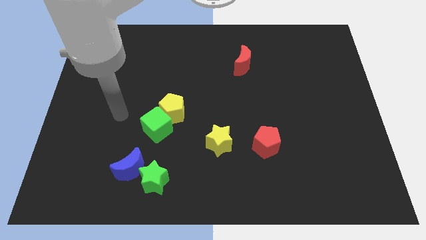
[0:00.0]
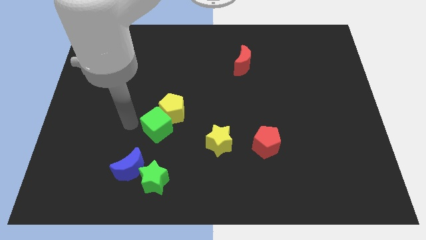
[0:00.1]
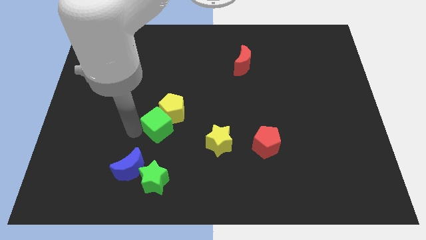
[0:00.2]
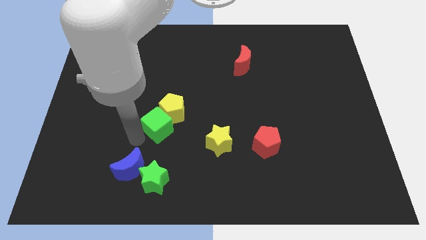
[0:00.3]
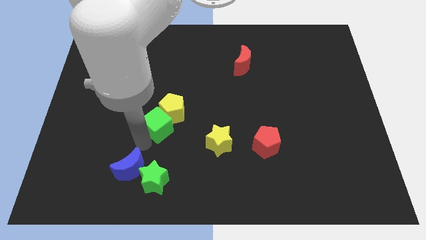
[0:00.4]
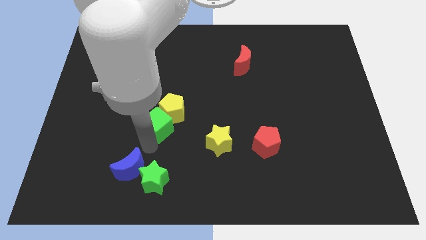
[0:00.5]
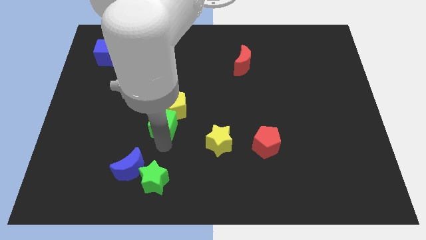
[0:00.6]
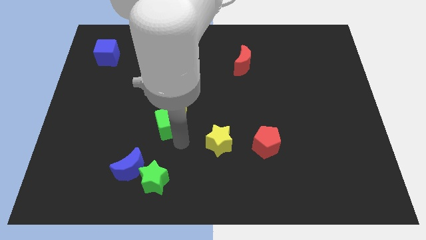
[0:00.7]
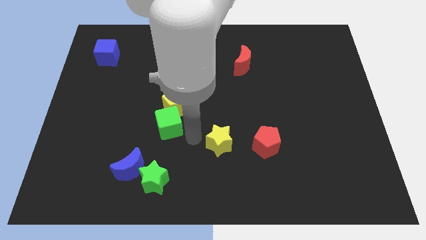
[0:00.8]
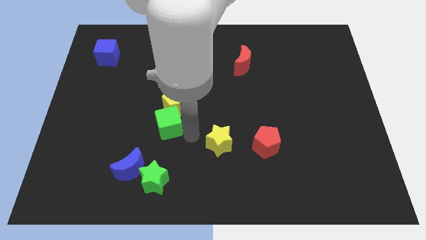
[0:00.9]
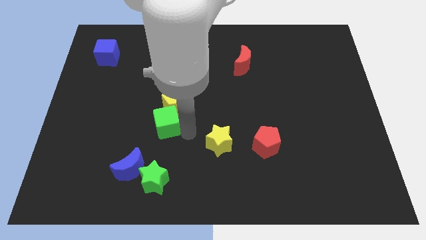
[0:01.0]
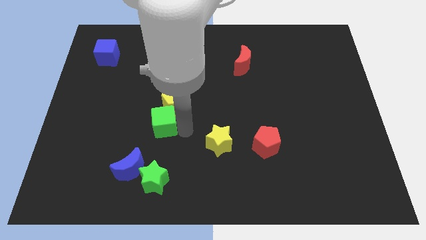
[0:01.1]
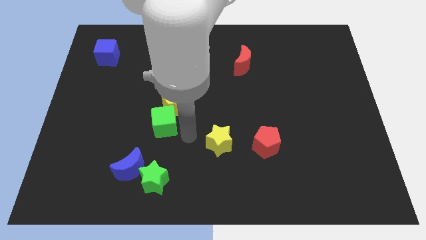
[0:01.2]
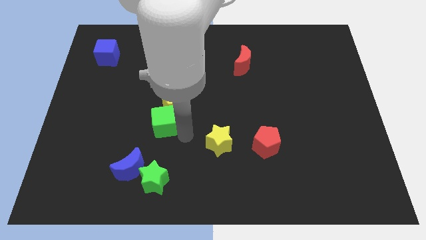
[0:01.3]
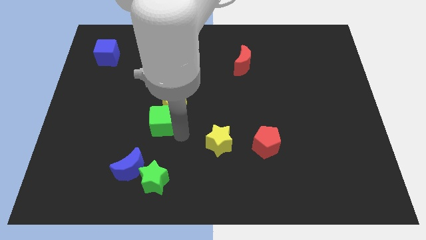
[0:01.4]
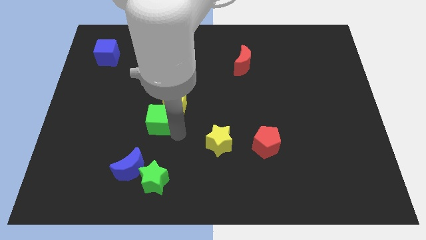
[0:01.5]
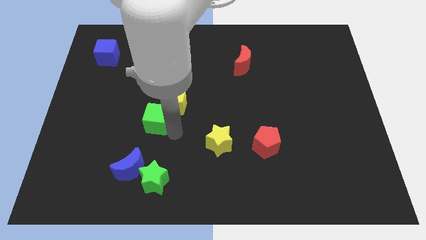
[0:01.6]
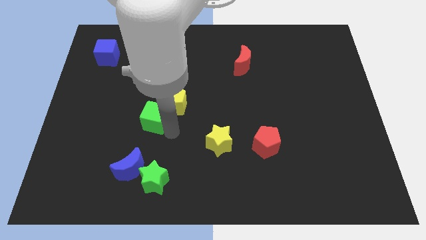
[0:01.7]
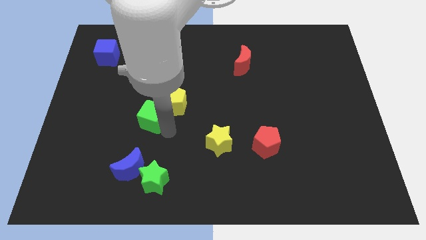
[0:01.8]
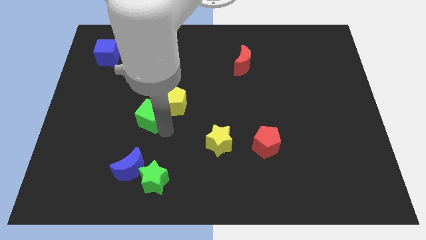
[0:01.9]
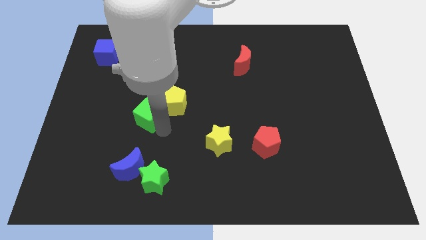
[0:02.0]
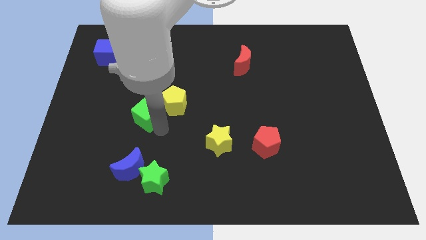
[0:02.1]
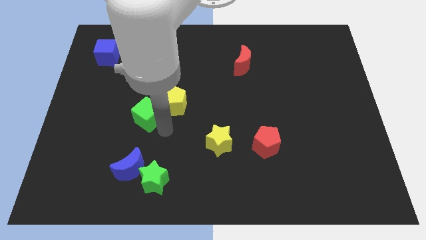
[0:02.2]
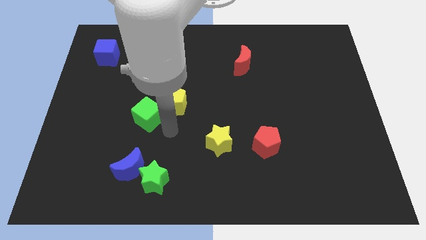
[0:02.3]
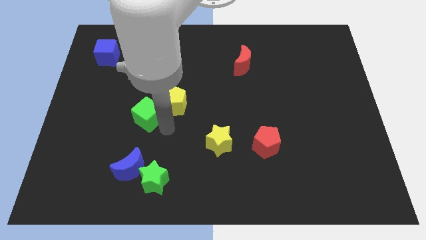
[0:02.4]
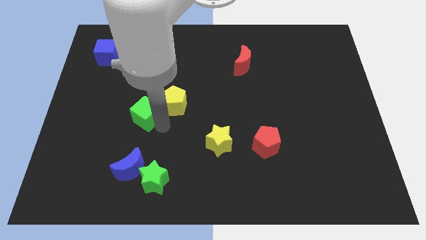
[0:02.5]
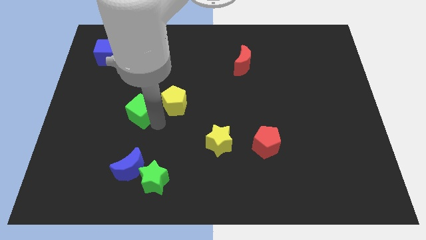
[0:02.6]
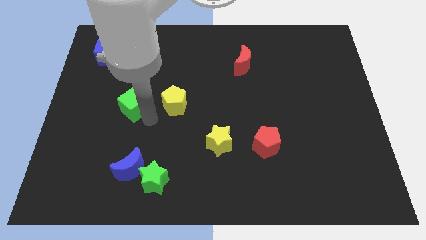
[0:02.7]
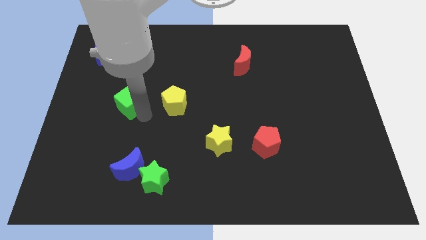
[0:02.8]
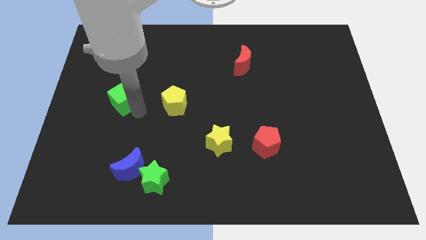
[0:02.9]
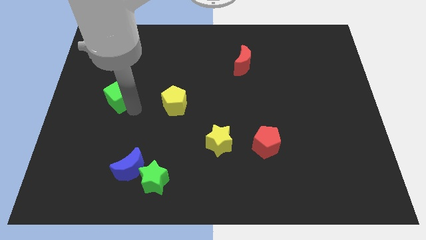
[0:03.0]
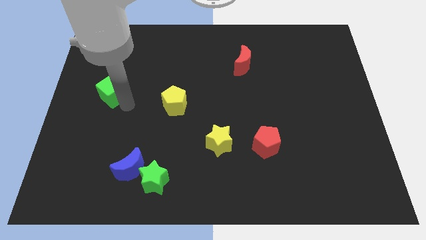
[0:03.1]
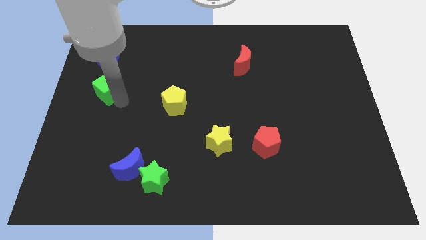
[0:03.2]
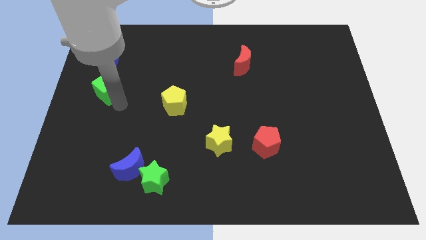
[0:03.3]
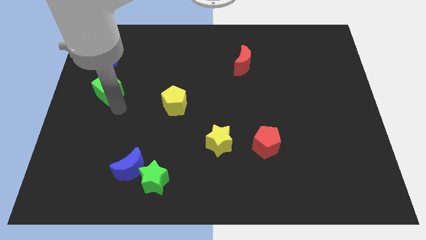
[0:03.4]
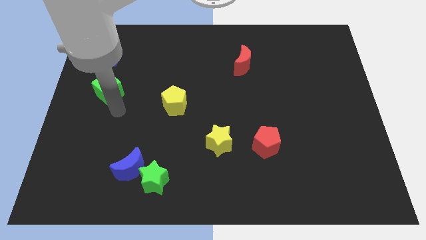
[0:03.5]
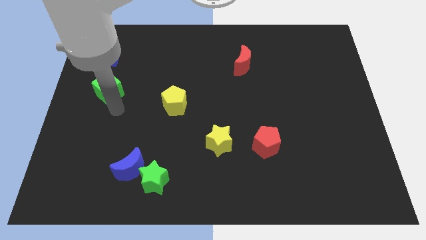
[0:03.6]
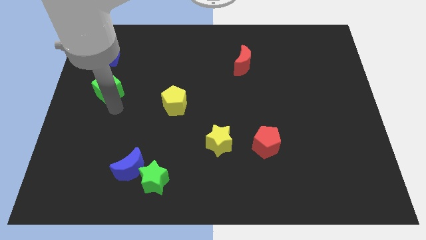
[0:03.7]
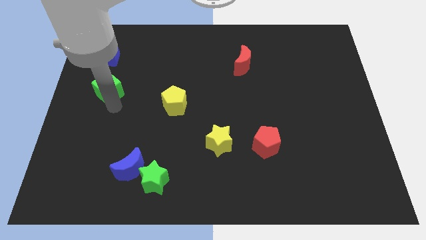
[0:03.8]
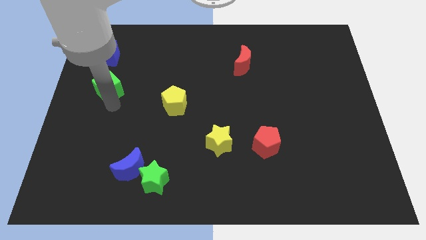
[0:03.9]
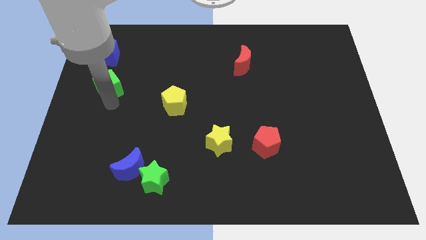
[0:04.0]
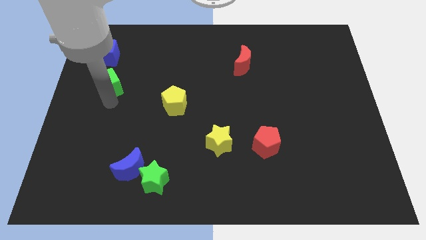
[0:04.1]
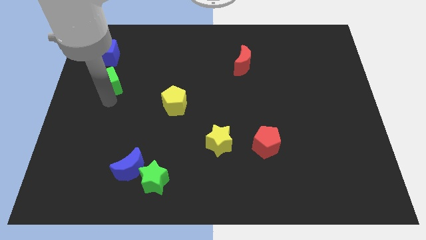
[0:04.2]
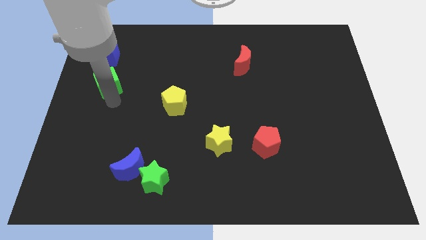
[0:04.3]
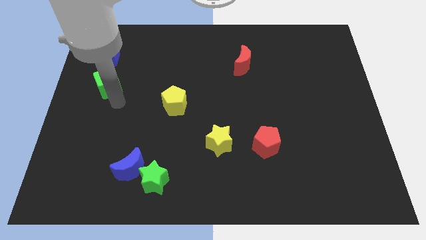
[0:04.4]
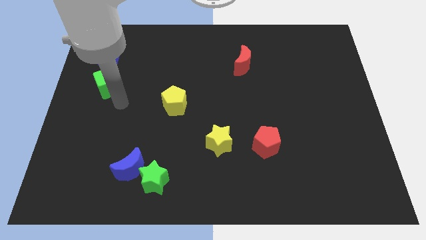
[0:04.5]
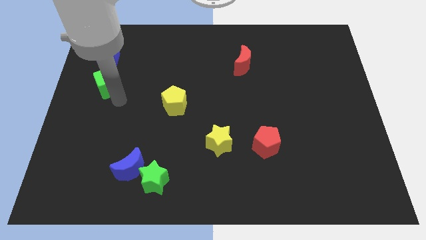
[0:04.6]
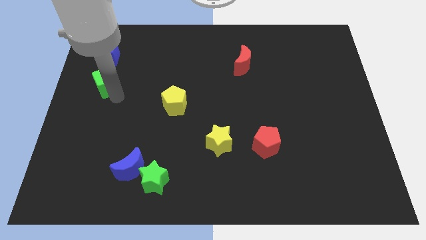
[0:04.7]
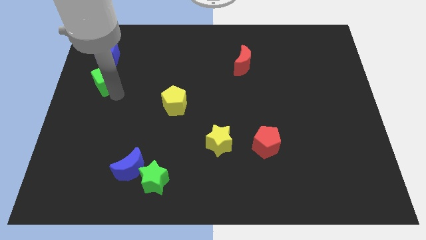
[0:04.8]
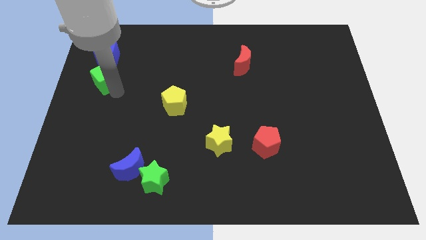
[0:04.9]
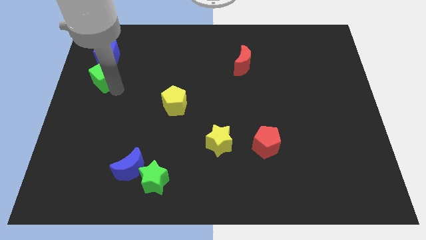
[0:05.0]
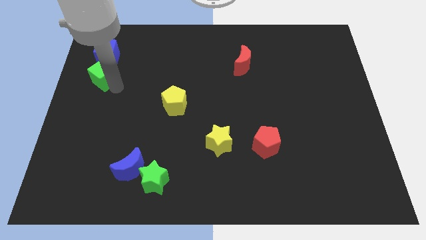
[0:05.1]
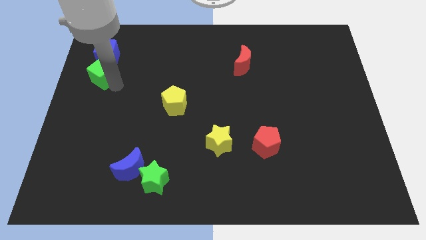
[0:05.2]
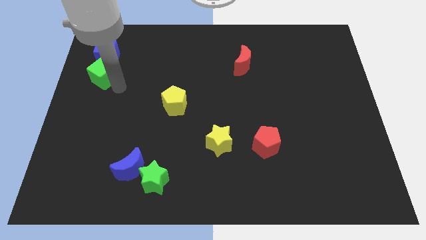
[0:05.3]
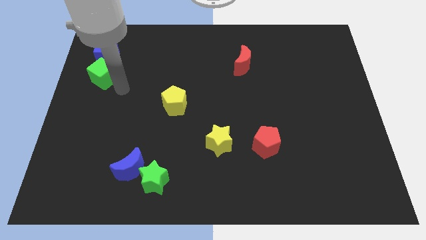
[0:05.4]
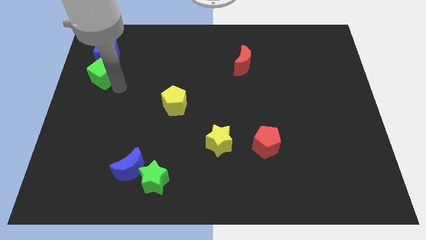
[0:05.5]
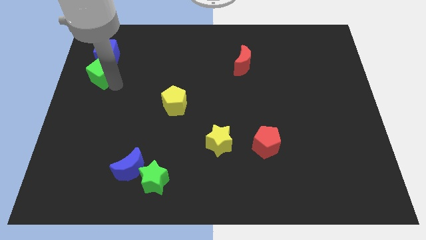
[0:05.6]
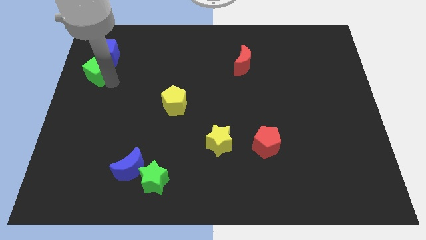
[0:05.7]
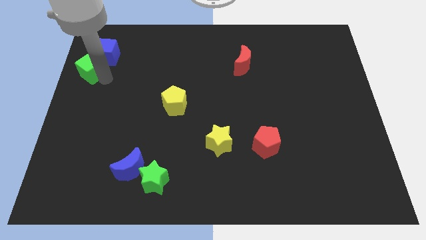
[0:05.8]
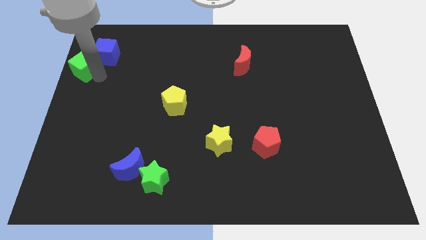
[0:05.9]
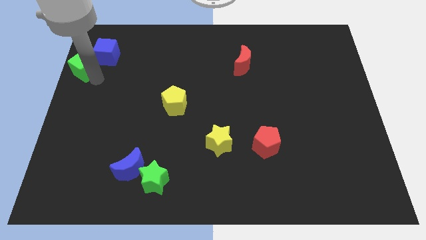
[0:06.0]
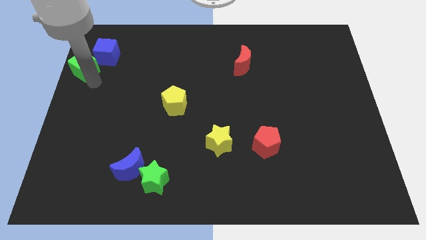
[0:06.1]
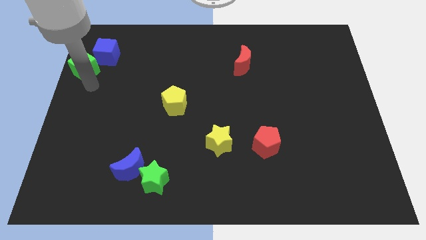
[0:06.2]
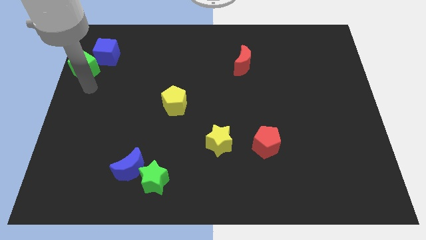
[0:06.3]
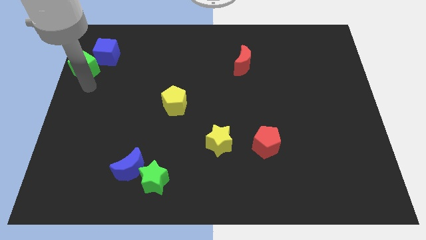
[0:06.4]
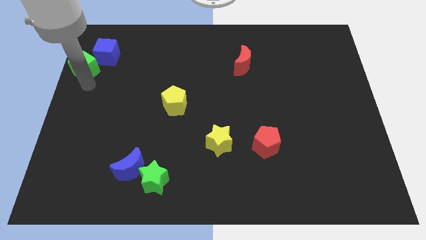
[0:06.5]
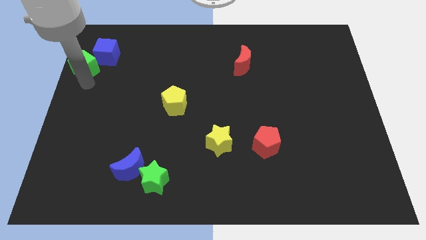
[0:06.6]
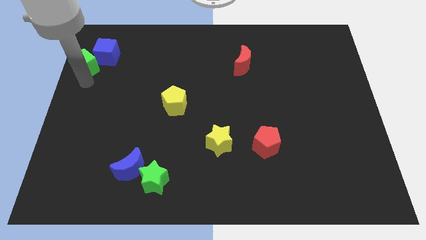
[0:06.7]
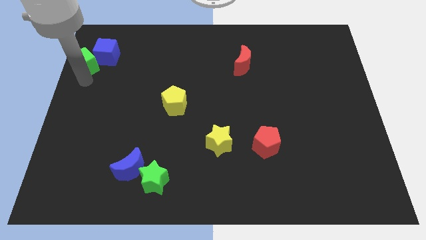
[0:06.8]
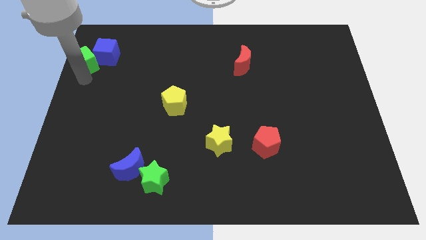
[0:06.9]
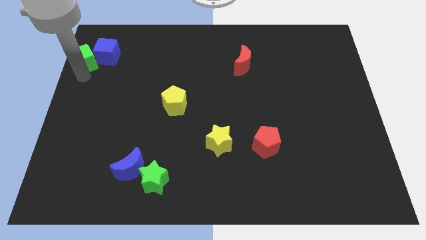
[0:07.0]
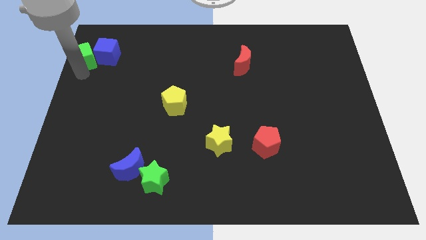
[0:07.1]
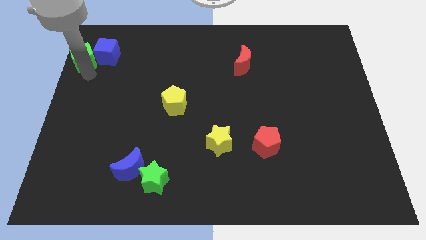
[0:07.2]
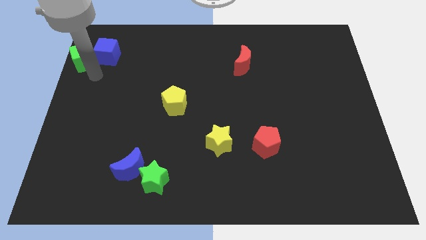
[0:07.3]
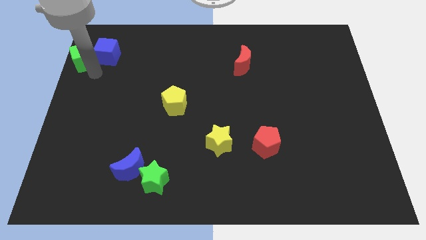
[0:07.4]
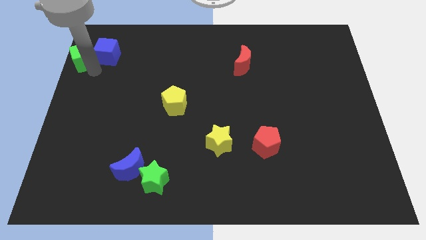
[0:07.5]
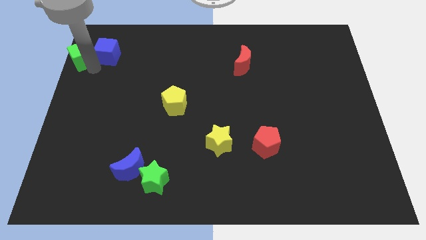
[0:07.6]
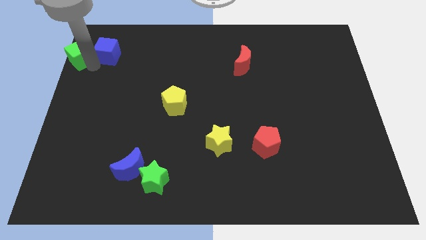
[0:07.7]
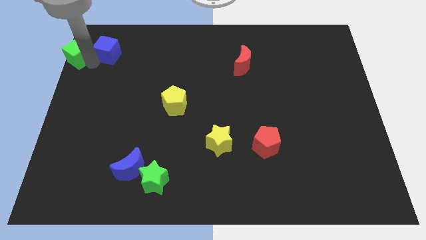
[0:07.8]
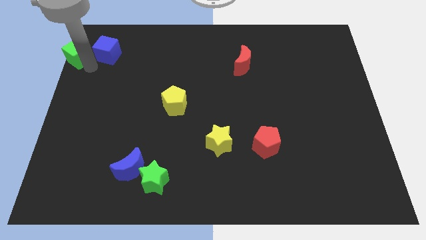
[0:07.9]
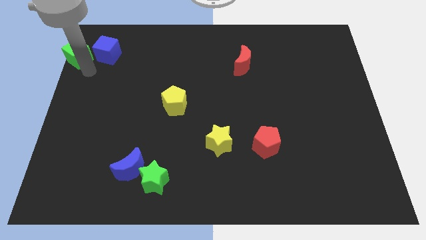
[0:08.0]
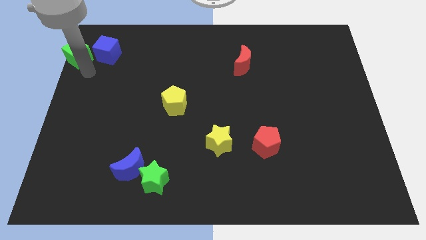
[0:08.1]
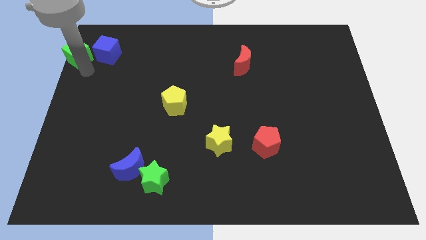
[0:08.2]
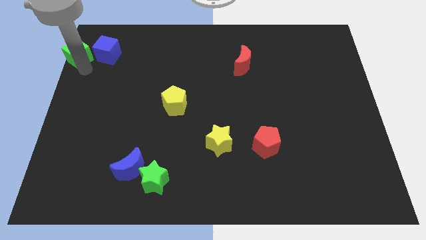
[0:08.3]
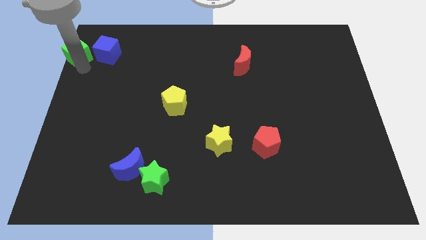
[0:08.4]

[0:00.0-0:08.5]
put the green cube to the upper left corner
